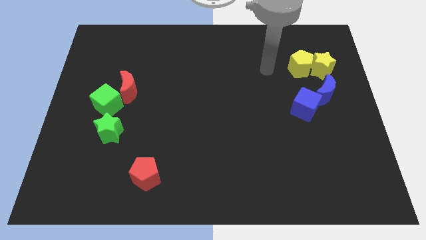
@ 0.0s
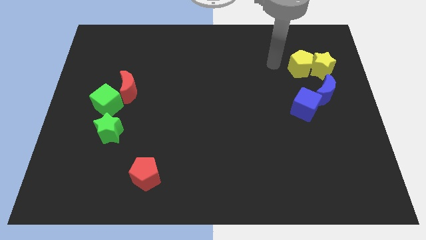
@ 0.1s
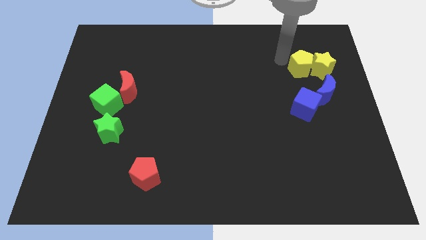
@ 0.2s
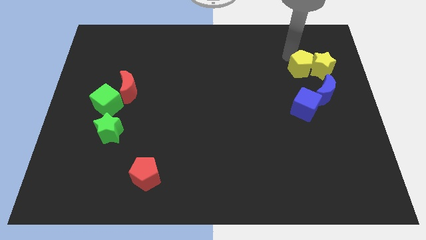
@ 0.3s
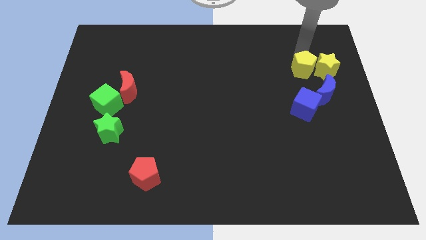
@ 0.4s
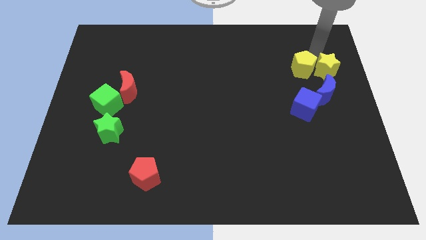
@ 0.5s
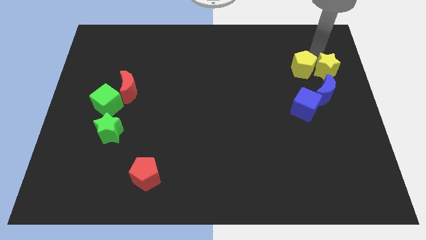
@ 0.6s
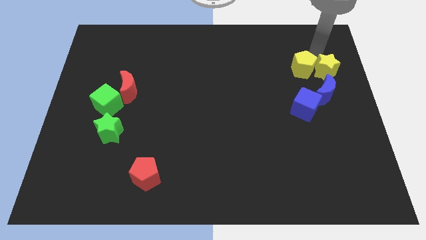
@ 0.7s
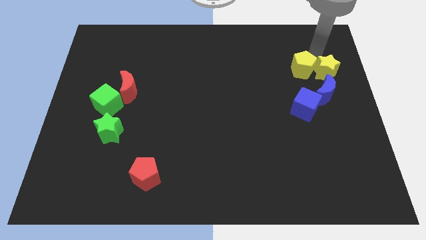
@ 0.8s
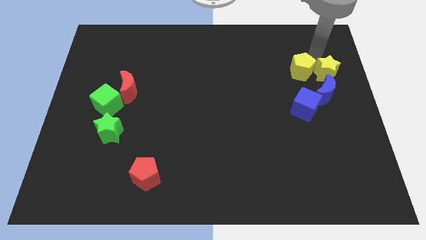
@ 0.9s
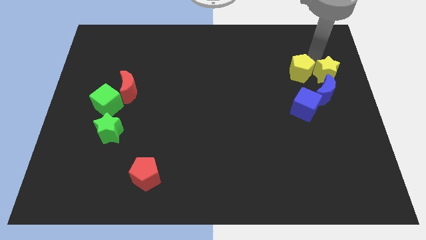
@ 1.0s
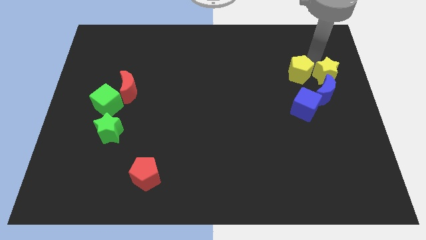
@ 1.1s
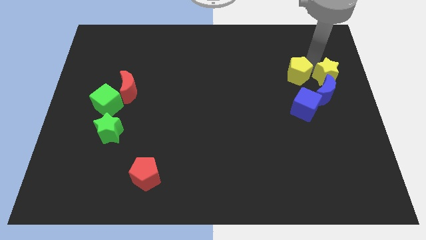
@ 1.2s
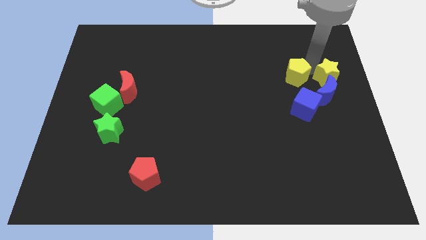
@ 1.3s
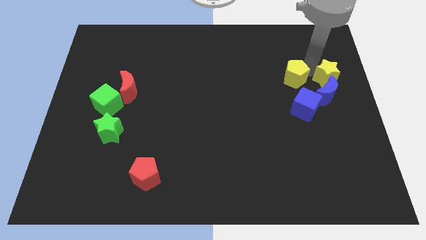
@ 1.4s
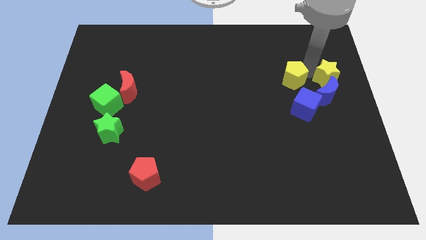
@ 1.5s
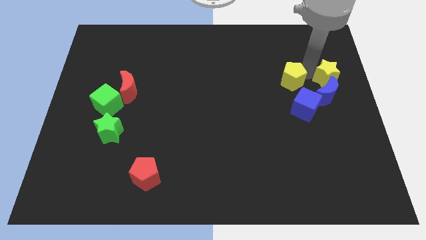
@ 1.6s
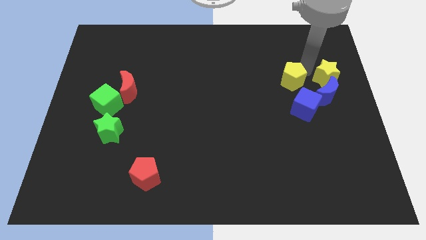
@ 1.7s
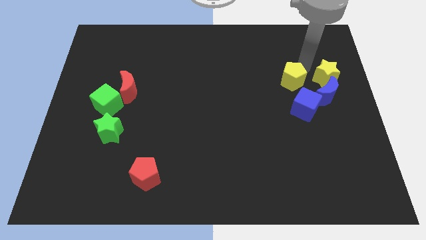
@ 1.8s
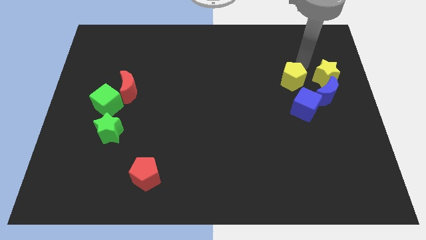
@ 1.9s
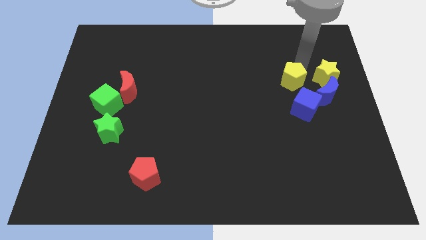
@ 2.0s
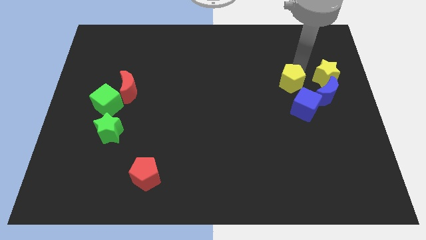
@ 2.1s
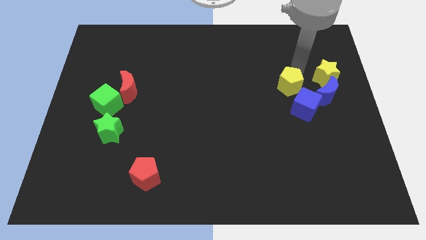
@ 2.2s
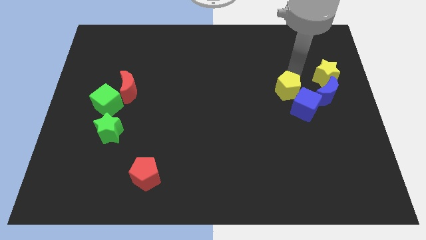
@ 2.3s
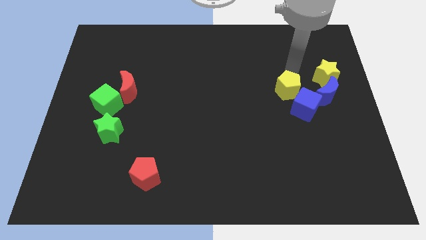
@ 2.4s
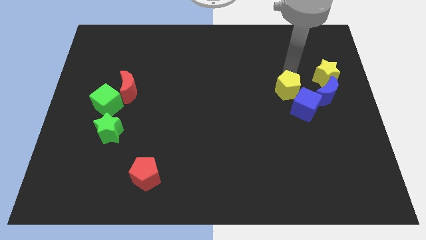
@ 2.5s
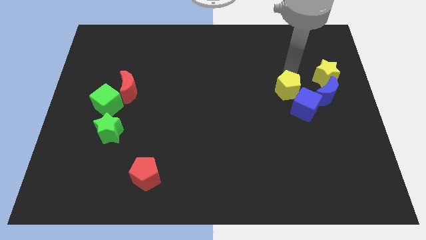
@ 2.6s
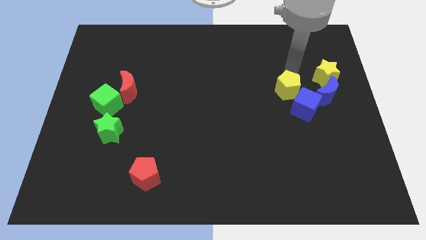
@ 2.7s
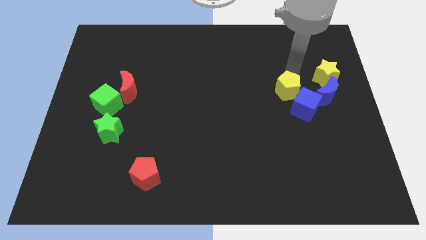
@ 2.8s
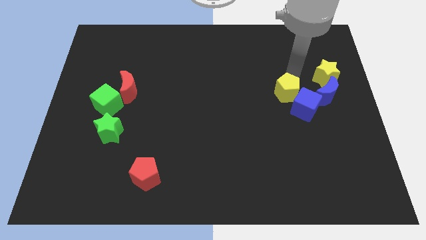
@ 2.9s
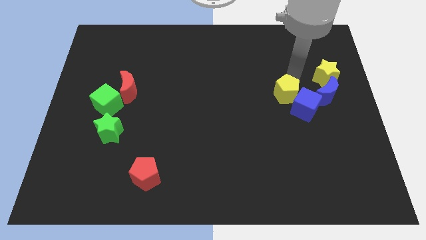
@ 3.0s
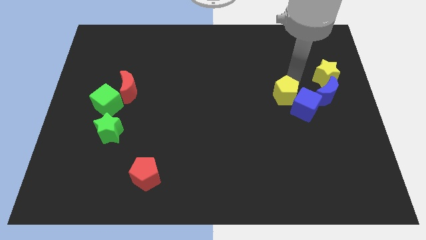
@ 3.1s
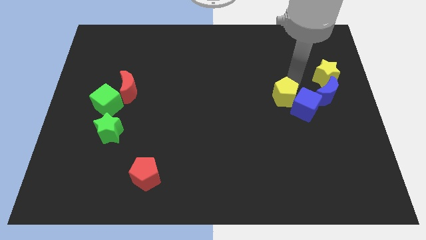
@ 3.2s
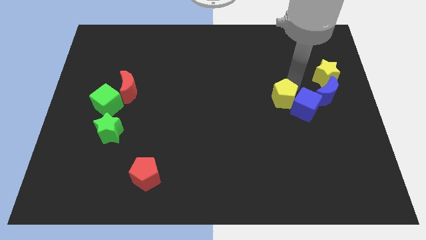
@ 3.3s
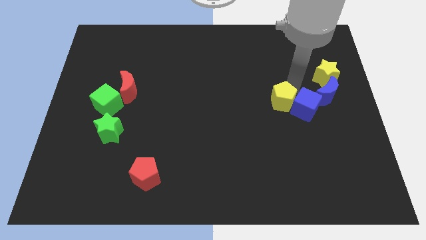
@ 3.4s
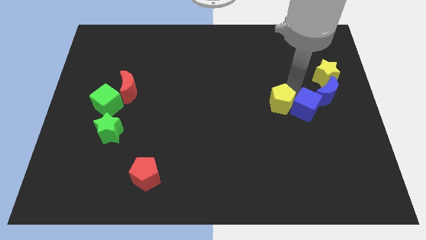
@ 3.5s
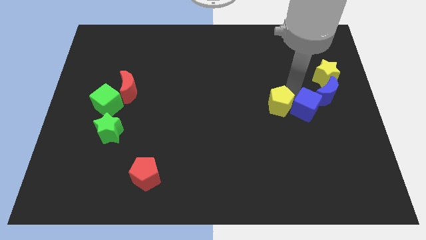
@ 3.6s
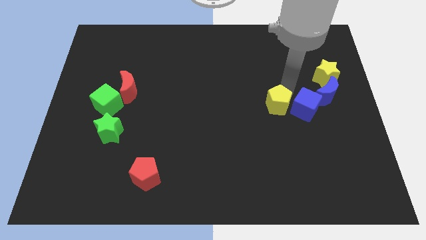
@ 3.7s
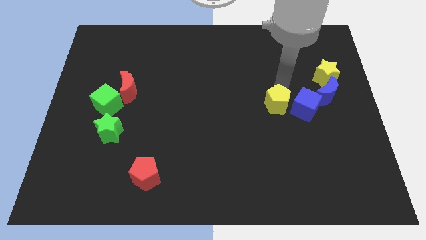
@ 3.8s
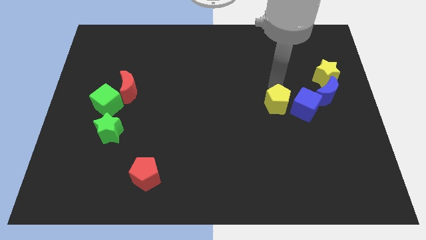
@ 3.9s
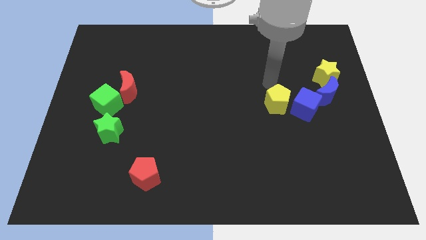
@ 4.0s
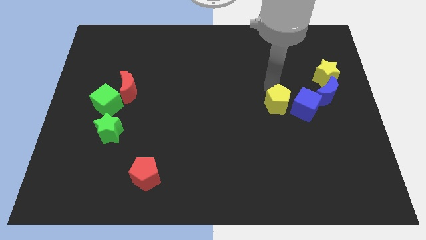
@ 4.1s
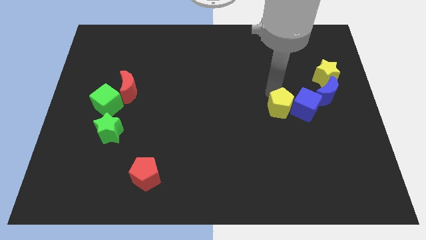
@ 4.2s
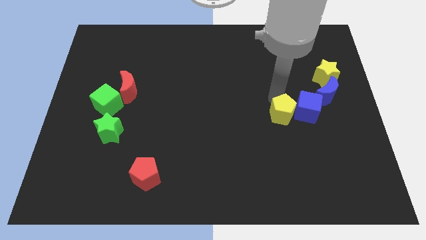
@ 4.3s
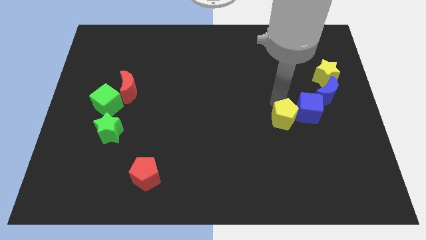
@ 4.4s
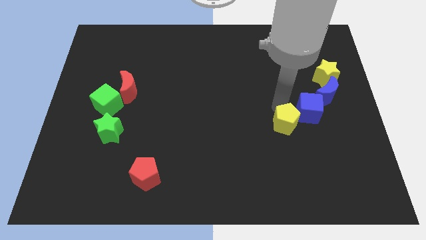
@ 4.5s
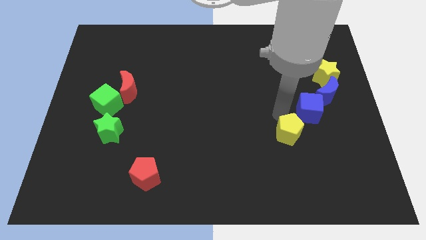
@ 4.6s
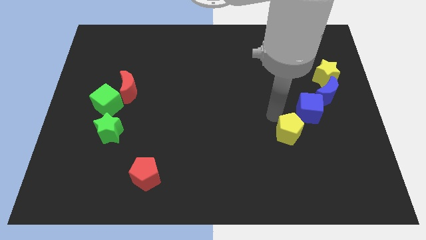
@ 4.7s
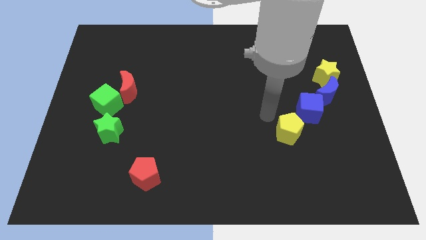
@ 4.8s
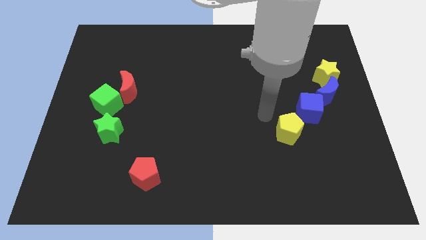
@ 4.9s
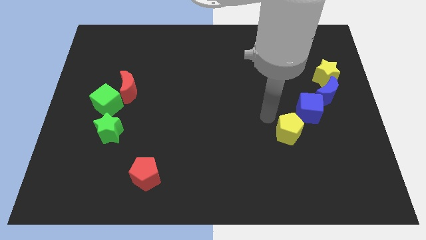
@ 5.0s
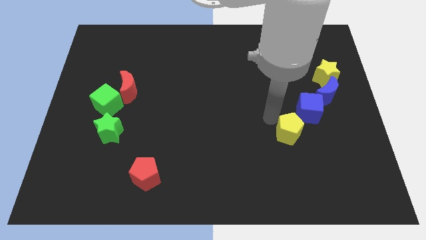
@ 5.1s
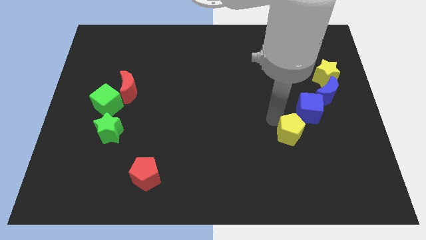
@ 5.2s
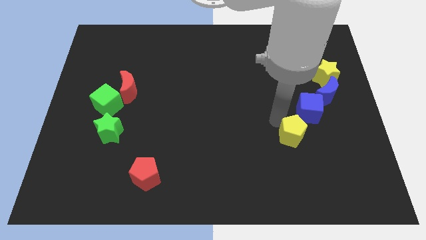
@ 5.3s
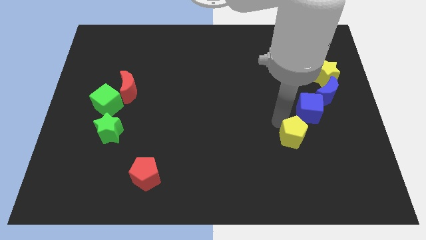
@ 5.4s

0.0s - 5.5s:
move the yellow pentagon down

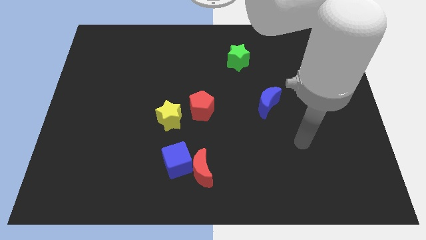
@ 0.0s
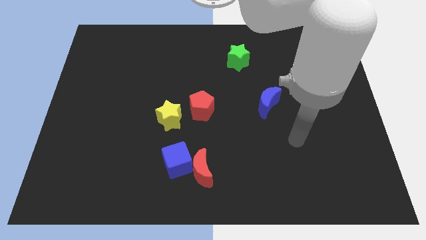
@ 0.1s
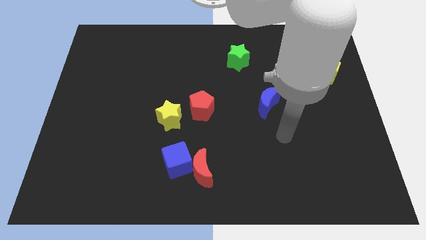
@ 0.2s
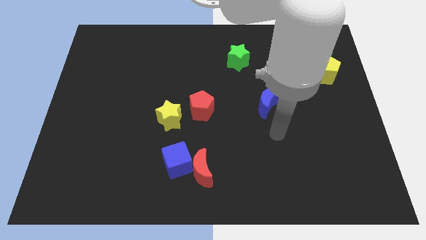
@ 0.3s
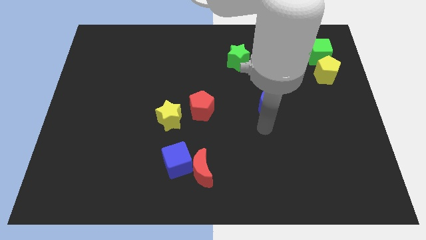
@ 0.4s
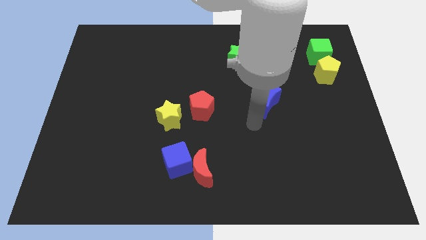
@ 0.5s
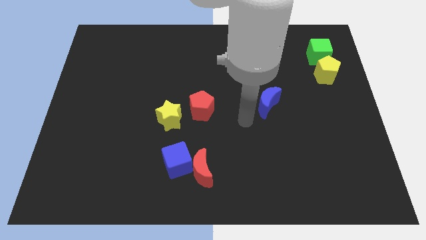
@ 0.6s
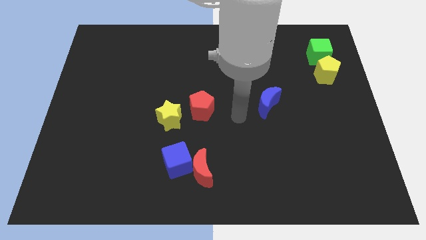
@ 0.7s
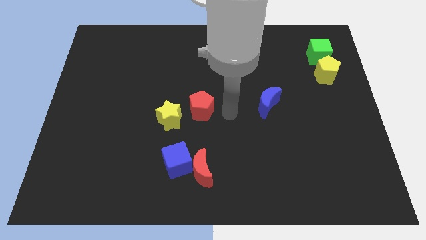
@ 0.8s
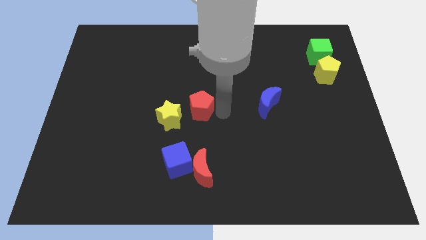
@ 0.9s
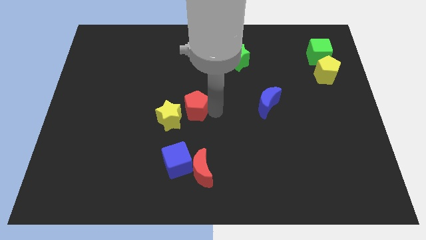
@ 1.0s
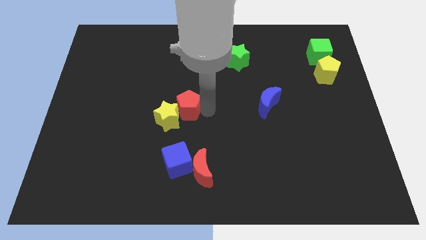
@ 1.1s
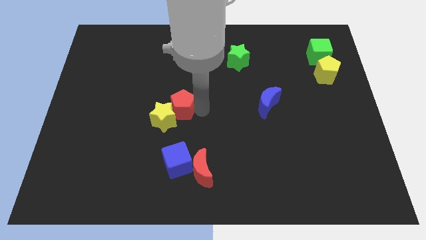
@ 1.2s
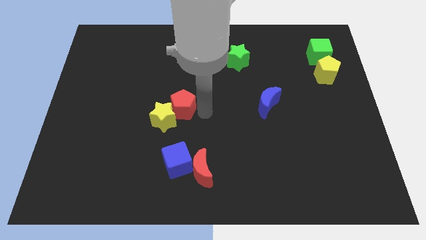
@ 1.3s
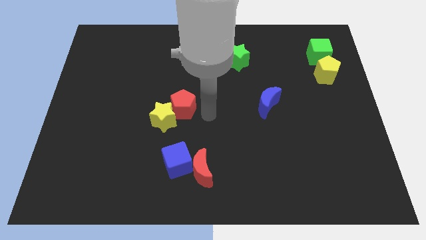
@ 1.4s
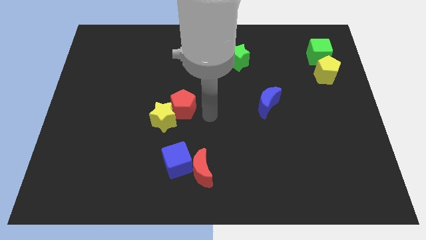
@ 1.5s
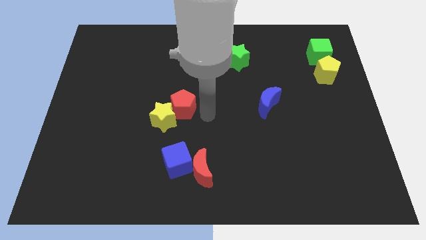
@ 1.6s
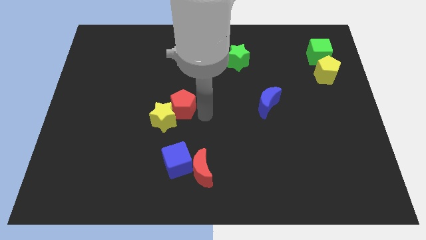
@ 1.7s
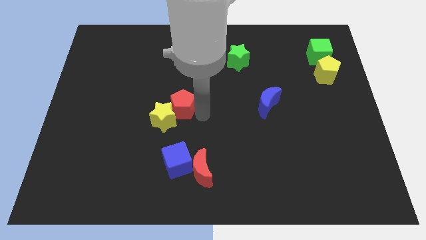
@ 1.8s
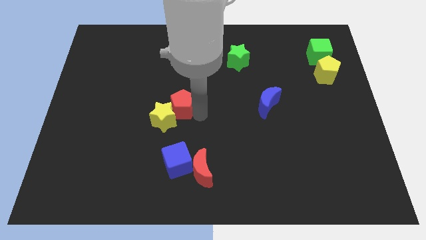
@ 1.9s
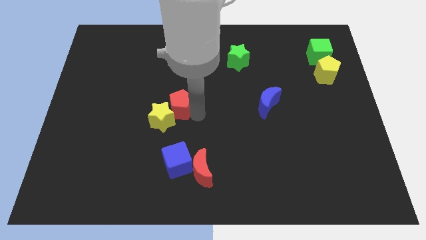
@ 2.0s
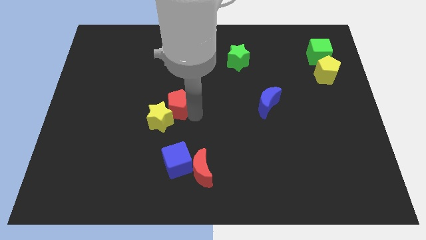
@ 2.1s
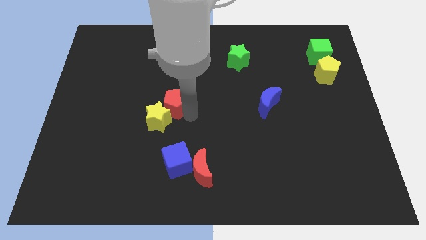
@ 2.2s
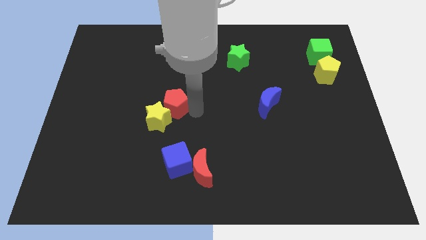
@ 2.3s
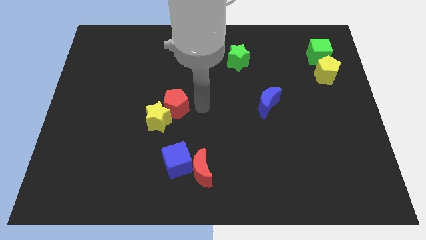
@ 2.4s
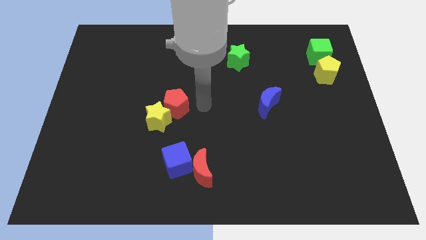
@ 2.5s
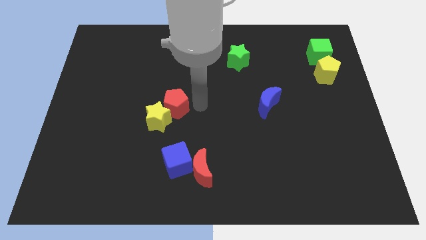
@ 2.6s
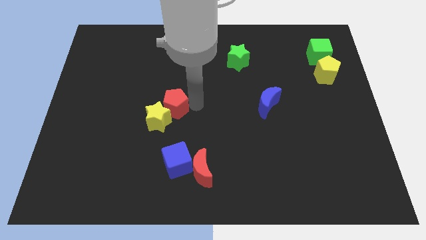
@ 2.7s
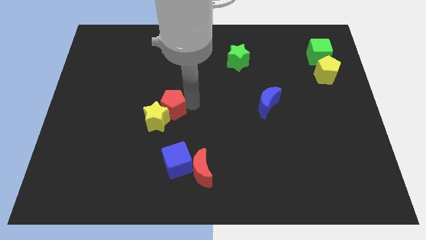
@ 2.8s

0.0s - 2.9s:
slightly slide the red pentagon left
